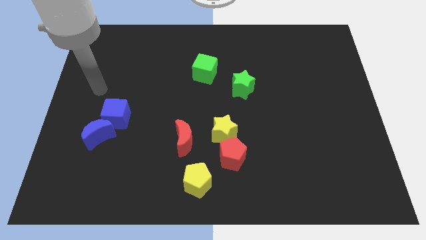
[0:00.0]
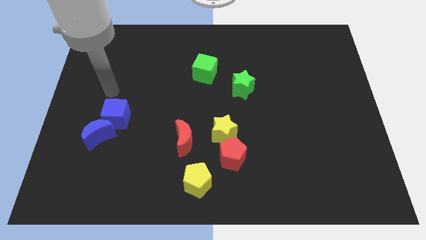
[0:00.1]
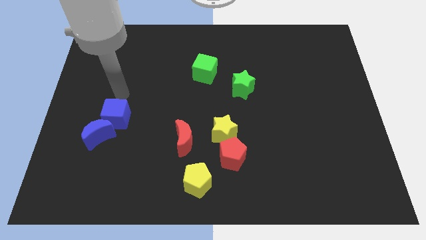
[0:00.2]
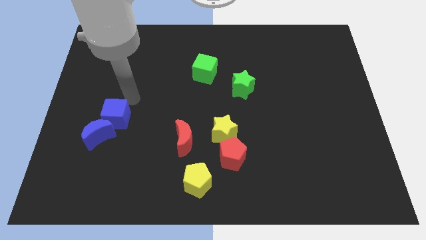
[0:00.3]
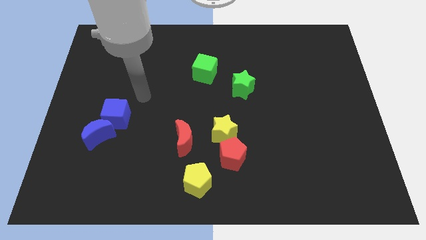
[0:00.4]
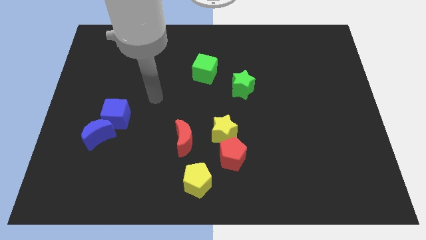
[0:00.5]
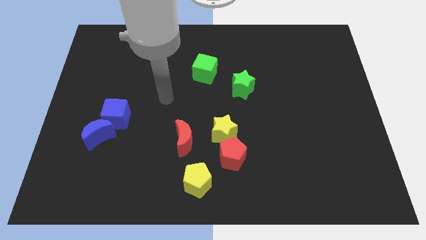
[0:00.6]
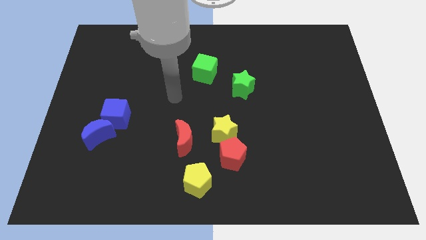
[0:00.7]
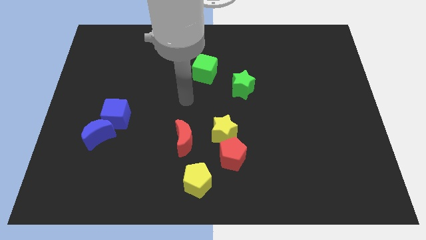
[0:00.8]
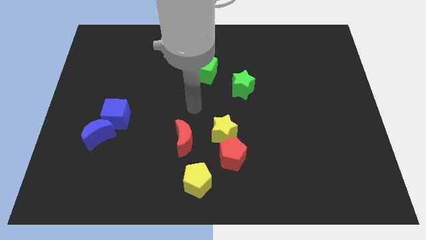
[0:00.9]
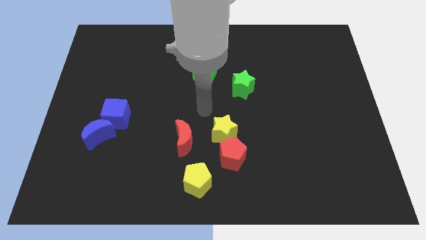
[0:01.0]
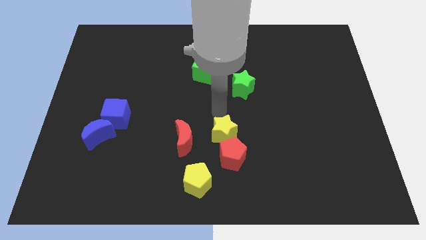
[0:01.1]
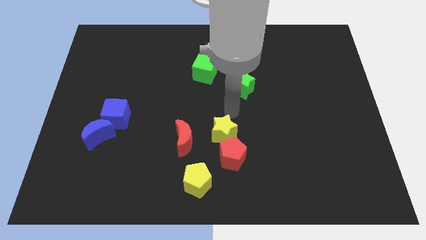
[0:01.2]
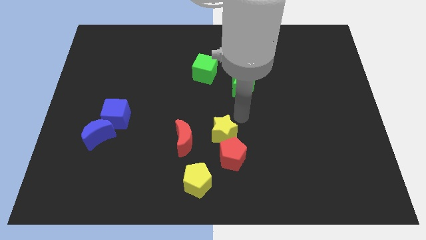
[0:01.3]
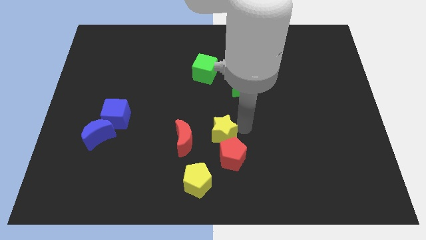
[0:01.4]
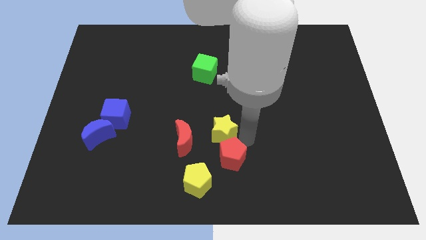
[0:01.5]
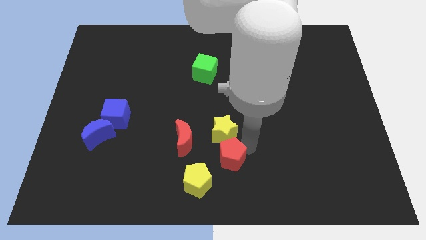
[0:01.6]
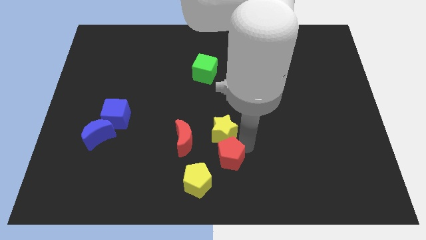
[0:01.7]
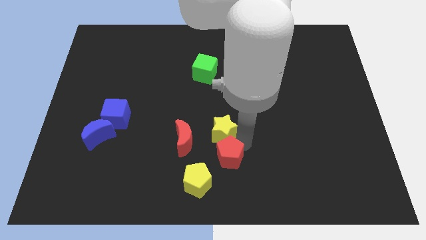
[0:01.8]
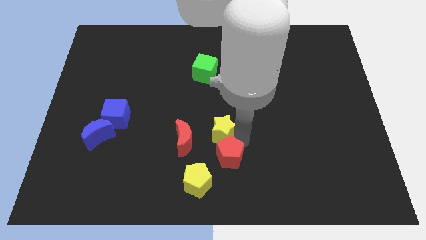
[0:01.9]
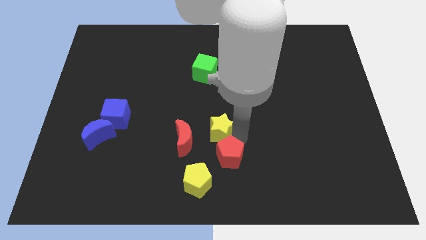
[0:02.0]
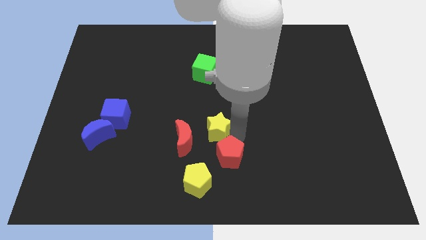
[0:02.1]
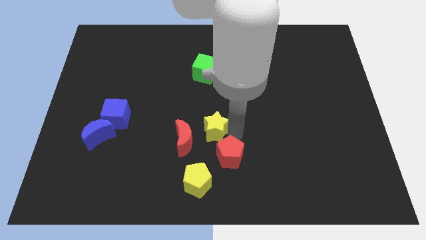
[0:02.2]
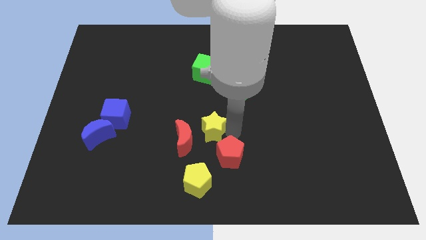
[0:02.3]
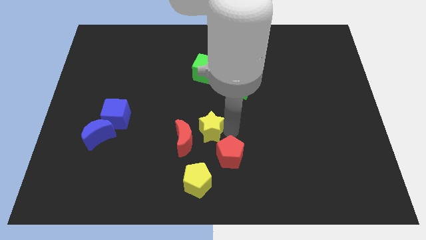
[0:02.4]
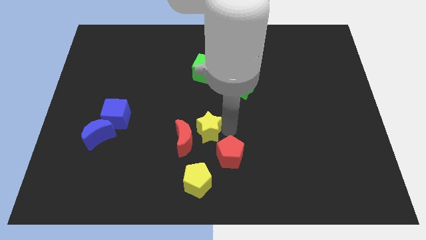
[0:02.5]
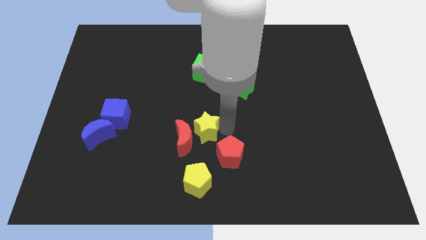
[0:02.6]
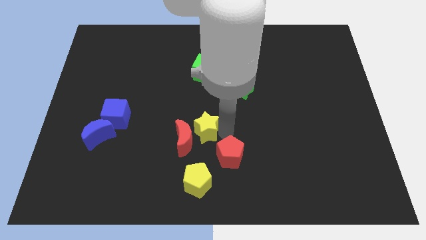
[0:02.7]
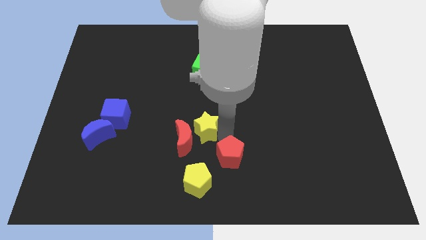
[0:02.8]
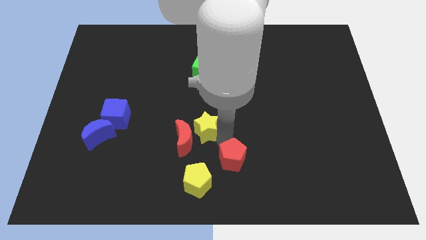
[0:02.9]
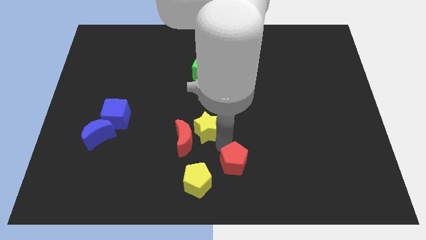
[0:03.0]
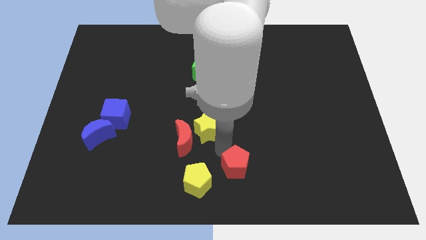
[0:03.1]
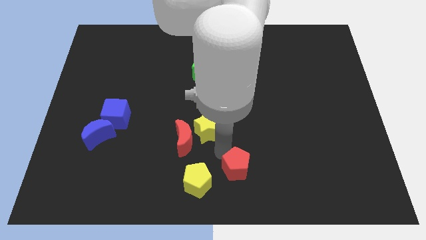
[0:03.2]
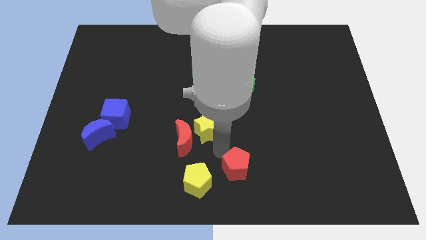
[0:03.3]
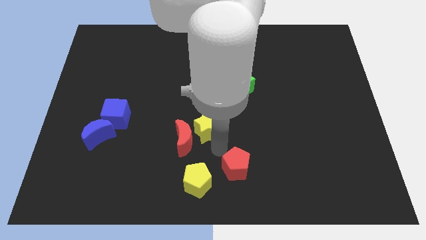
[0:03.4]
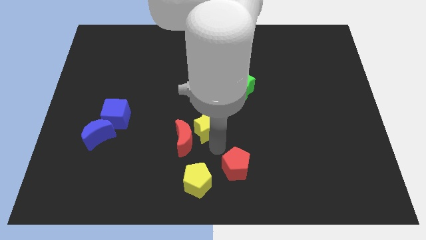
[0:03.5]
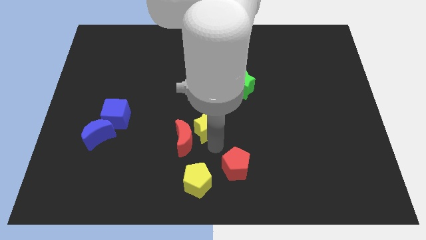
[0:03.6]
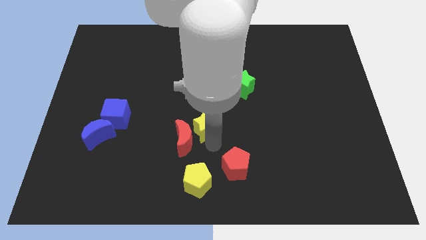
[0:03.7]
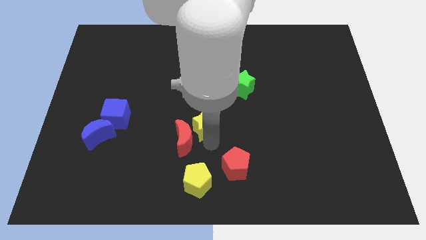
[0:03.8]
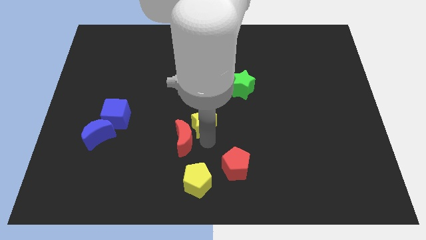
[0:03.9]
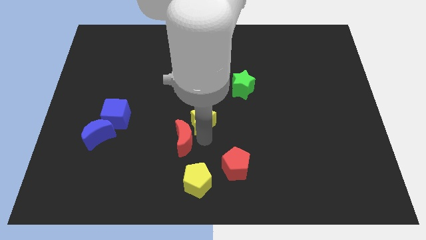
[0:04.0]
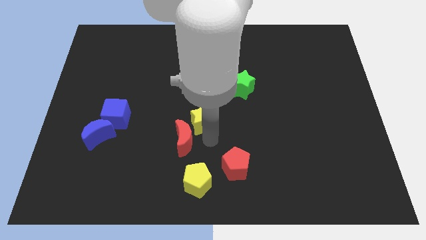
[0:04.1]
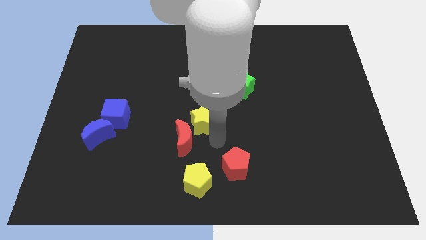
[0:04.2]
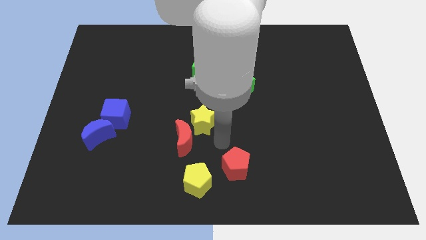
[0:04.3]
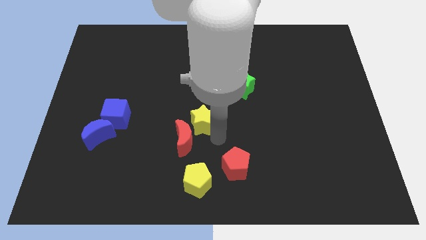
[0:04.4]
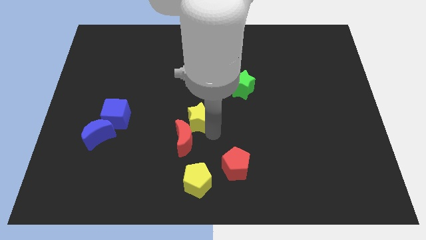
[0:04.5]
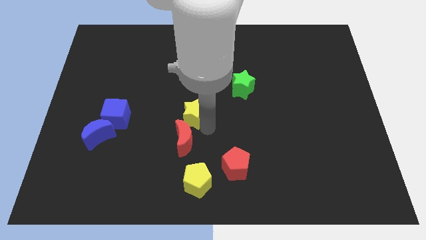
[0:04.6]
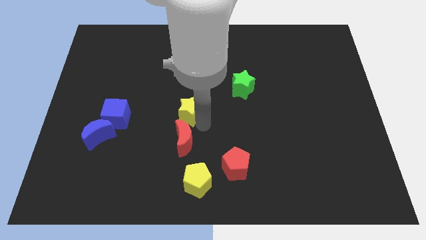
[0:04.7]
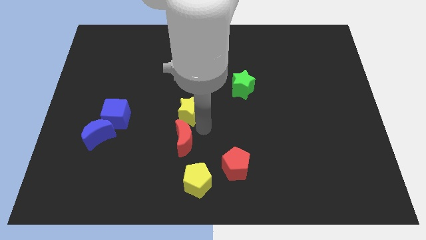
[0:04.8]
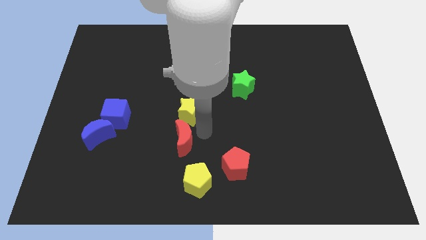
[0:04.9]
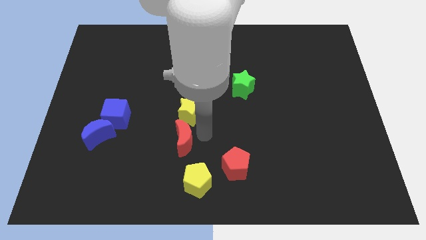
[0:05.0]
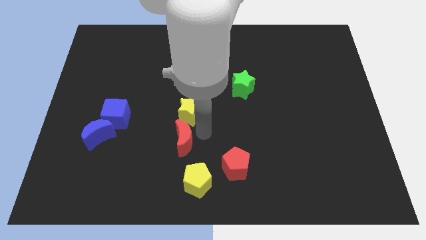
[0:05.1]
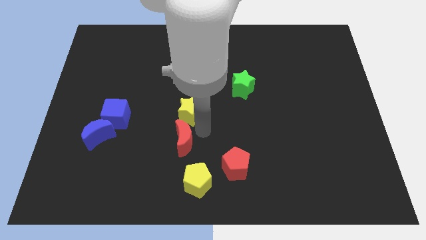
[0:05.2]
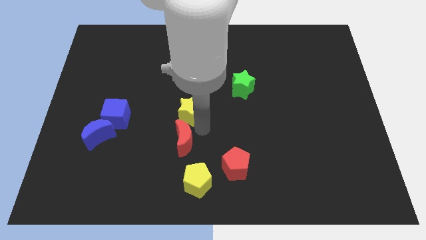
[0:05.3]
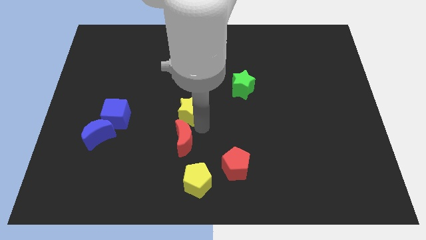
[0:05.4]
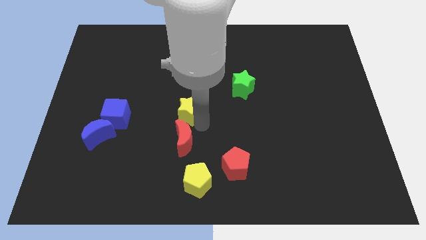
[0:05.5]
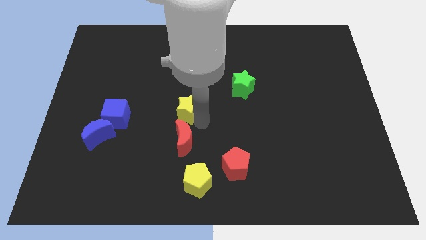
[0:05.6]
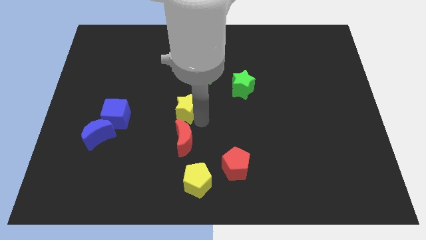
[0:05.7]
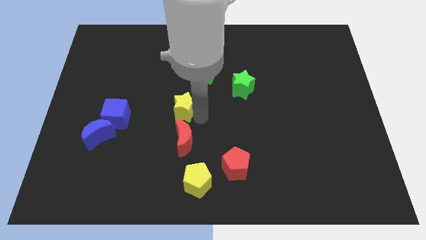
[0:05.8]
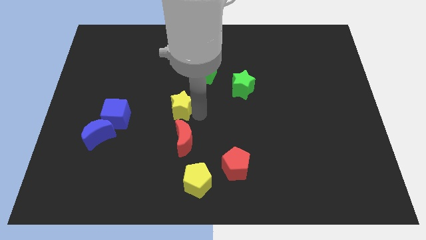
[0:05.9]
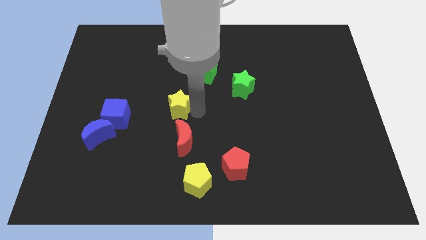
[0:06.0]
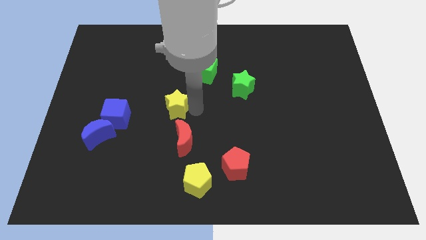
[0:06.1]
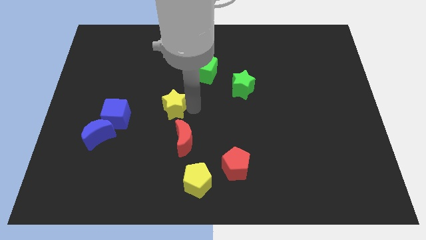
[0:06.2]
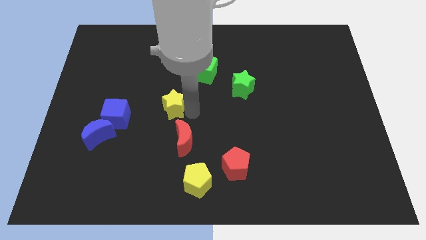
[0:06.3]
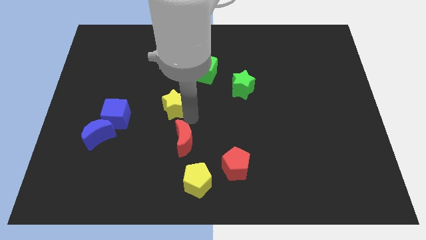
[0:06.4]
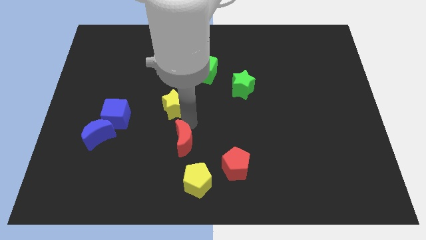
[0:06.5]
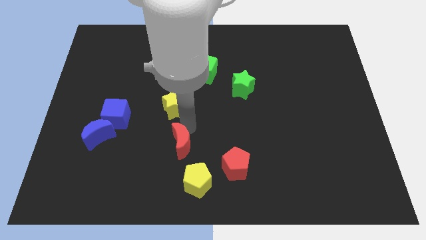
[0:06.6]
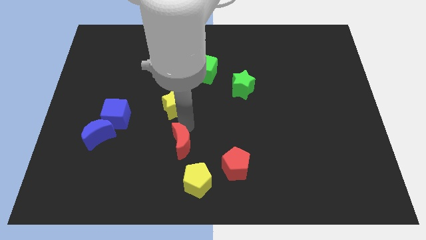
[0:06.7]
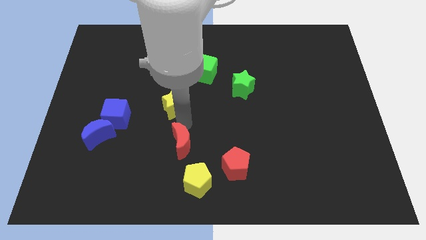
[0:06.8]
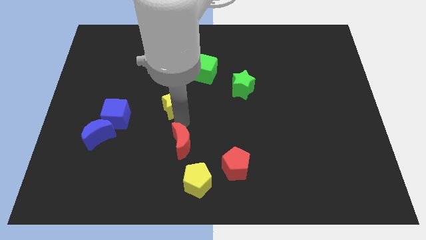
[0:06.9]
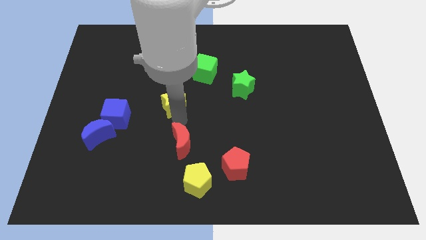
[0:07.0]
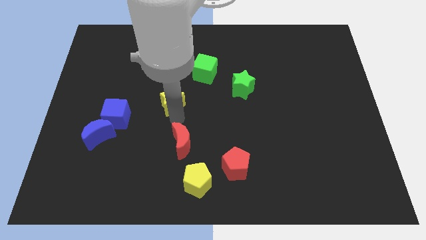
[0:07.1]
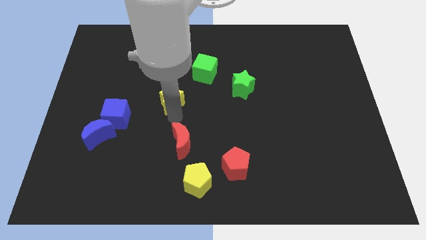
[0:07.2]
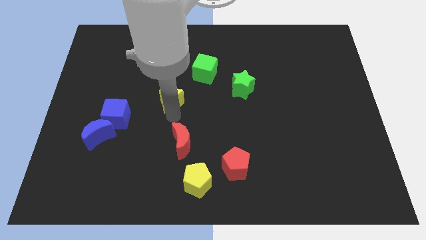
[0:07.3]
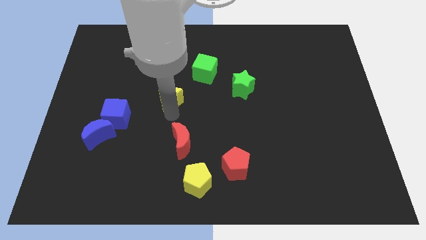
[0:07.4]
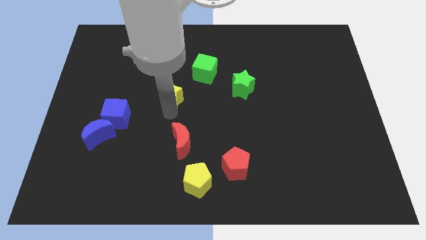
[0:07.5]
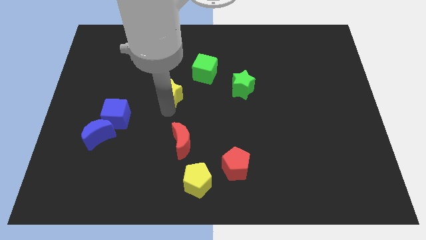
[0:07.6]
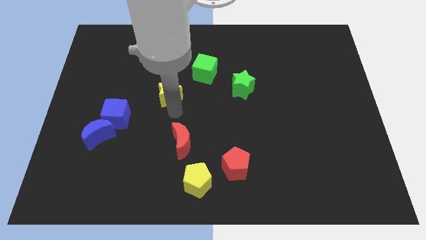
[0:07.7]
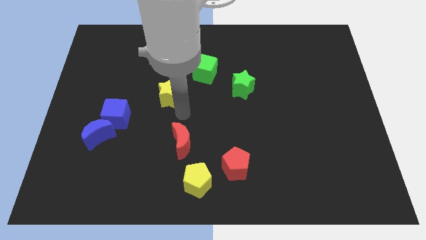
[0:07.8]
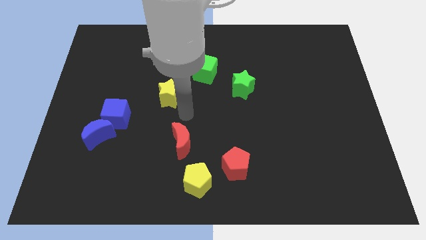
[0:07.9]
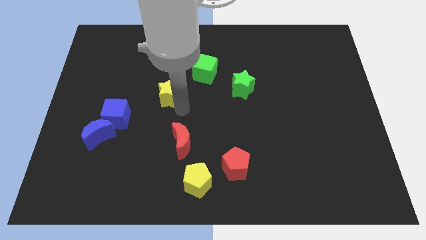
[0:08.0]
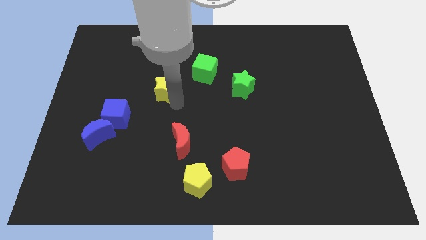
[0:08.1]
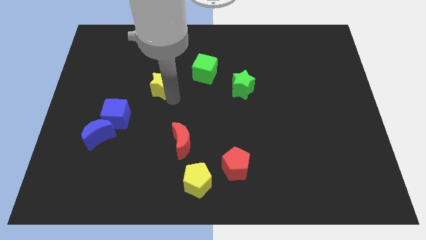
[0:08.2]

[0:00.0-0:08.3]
move the yellow star upwards and to the left diagonally
